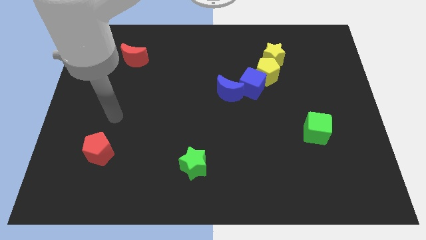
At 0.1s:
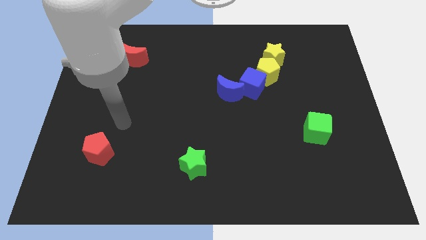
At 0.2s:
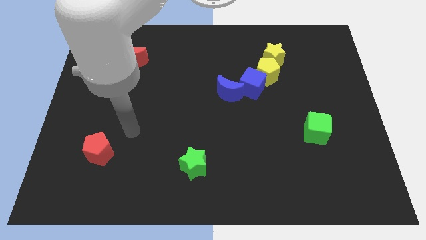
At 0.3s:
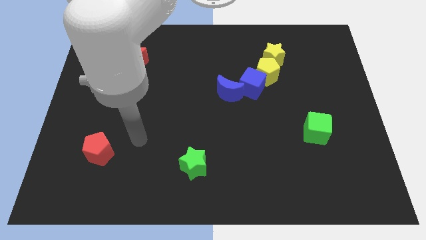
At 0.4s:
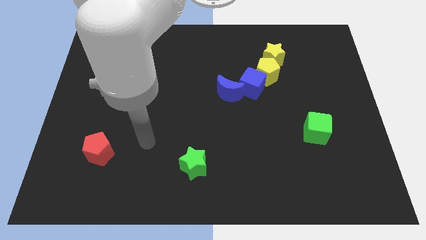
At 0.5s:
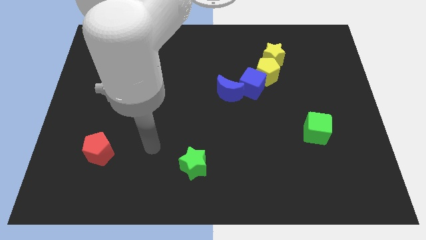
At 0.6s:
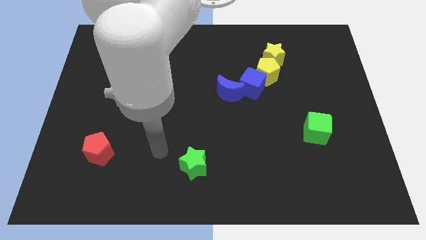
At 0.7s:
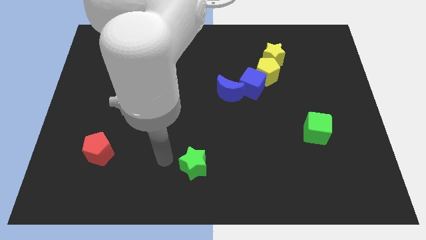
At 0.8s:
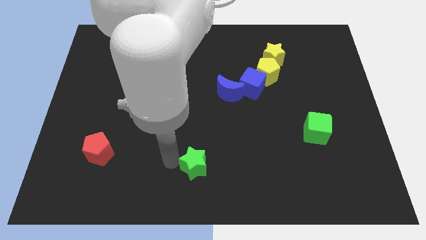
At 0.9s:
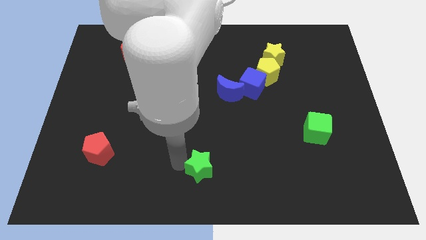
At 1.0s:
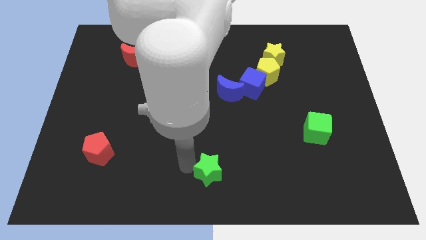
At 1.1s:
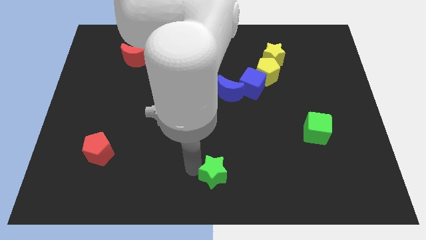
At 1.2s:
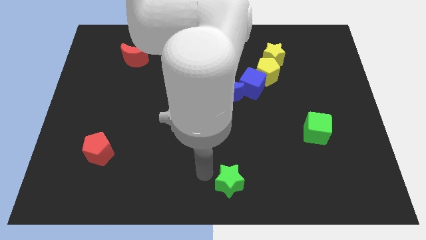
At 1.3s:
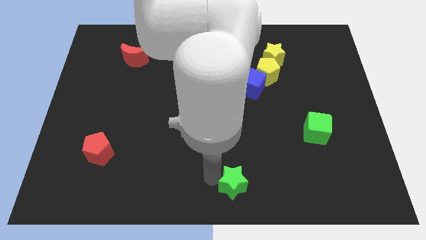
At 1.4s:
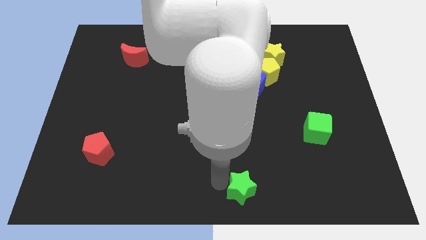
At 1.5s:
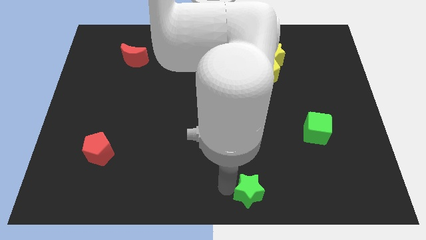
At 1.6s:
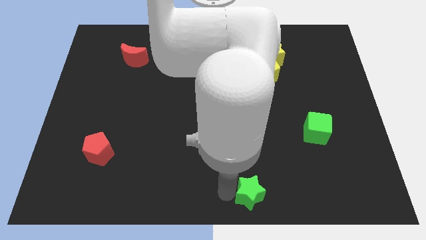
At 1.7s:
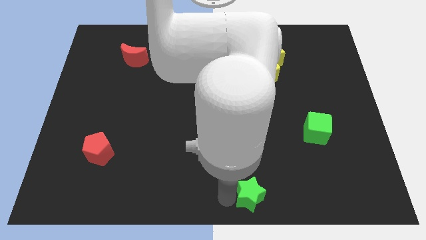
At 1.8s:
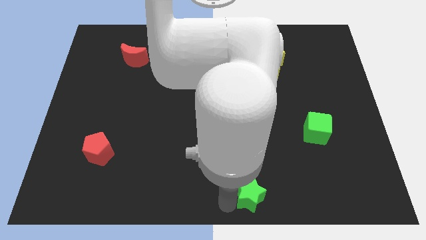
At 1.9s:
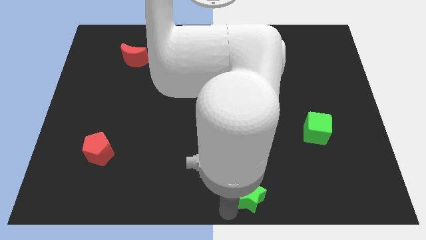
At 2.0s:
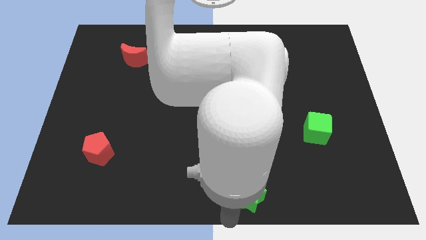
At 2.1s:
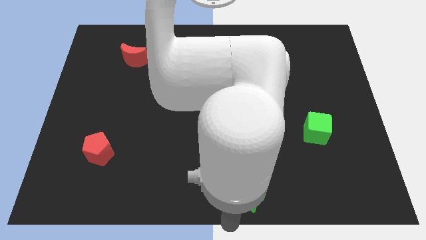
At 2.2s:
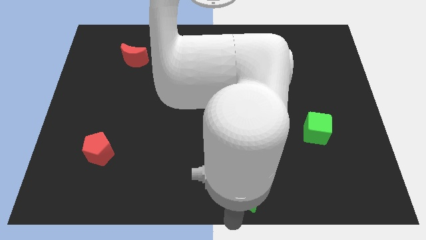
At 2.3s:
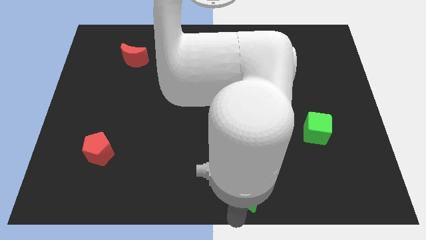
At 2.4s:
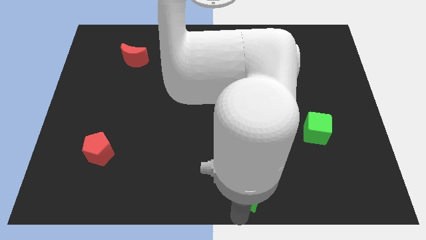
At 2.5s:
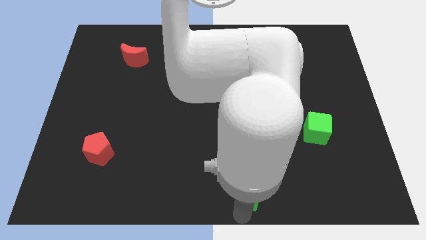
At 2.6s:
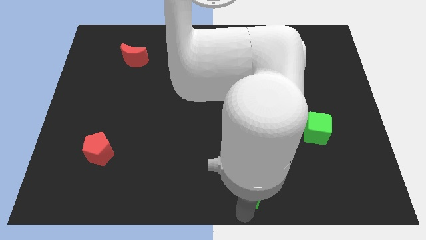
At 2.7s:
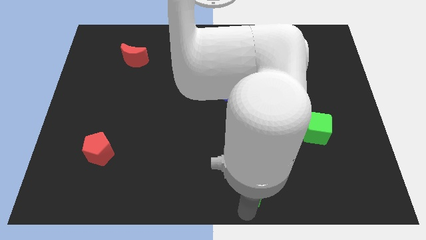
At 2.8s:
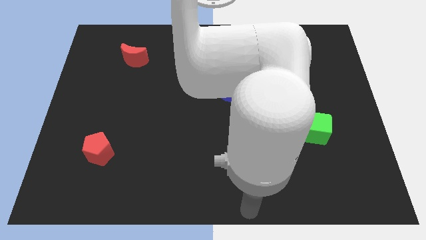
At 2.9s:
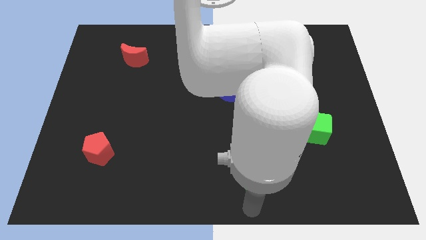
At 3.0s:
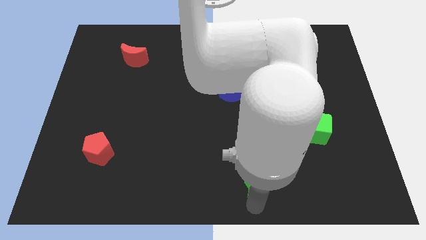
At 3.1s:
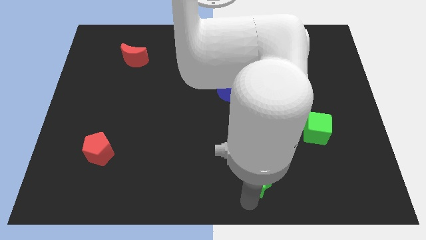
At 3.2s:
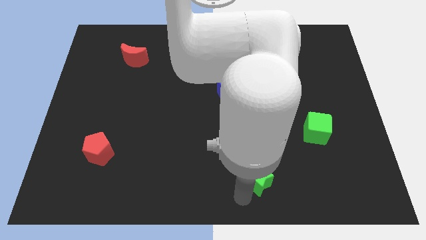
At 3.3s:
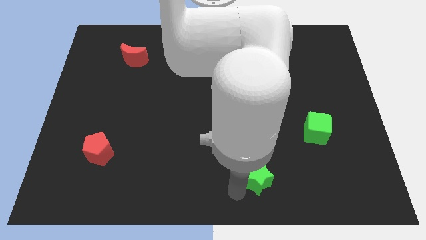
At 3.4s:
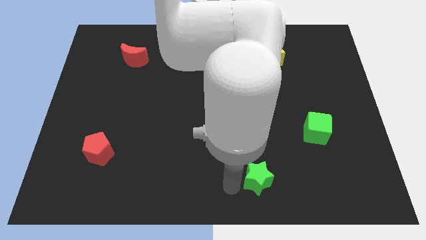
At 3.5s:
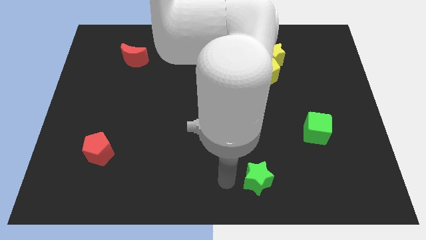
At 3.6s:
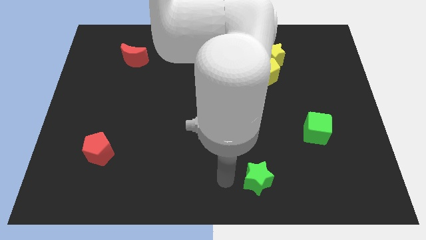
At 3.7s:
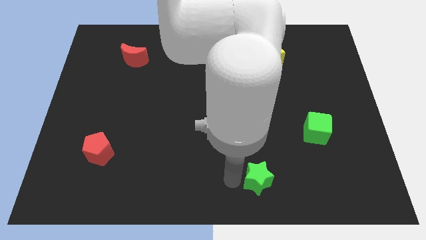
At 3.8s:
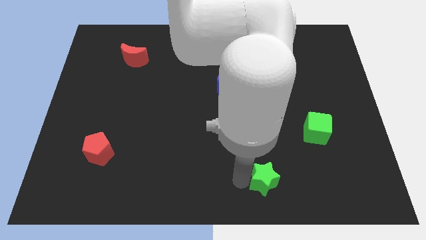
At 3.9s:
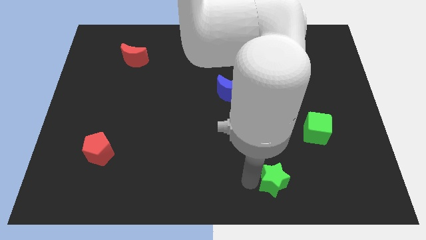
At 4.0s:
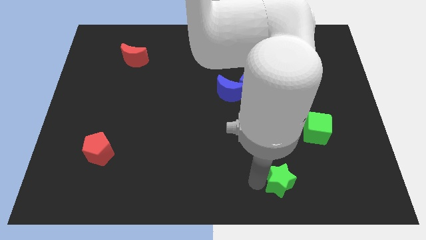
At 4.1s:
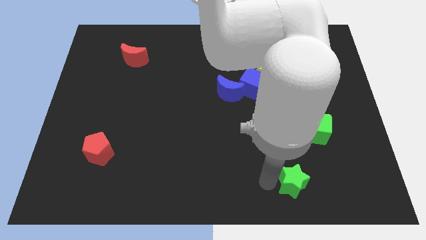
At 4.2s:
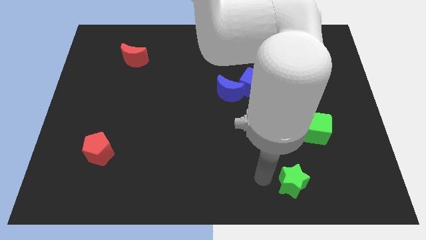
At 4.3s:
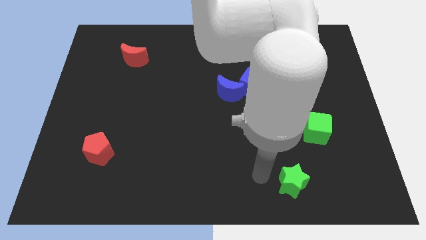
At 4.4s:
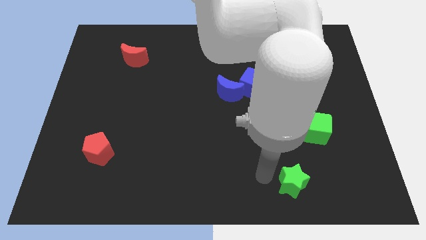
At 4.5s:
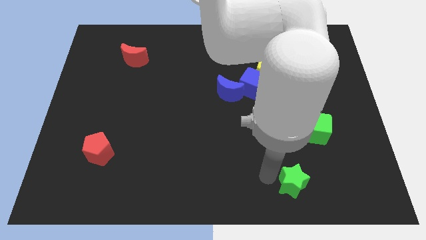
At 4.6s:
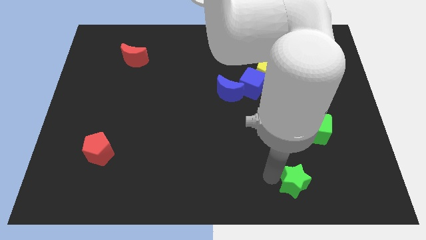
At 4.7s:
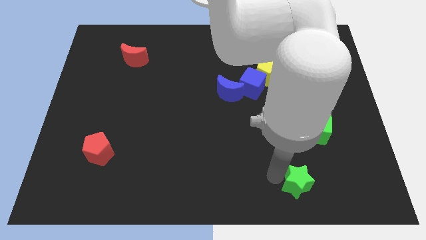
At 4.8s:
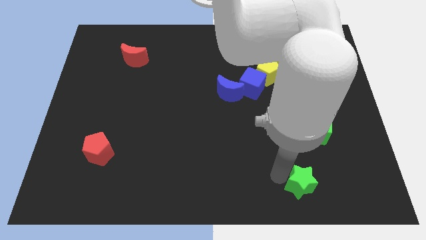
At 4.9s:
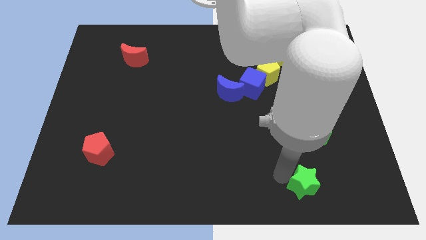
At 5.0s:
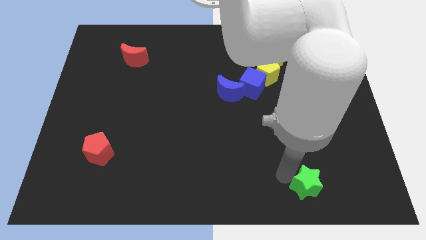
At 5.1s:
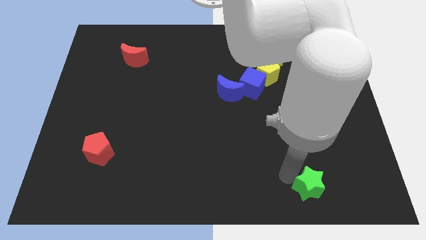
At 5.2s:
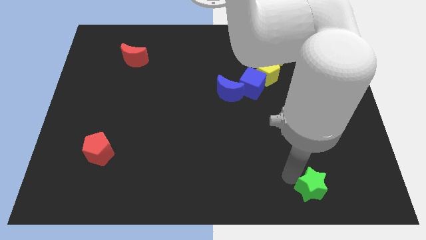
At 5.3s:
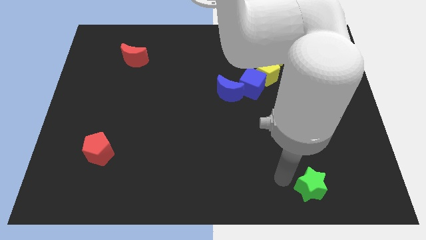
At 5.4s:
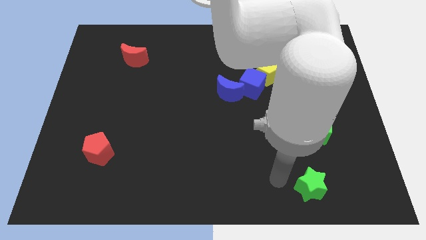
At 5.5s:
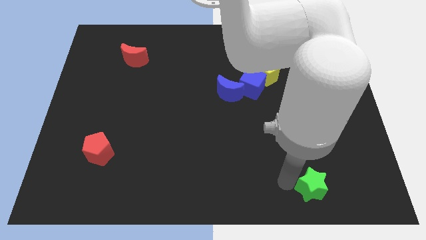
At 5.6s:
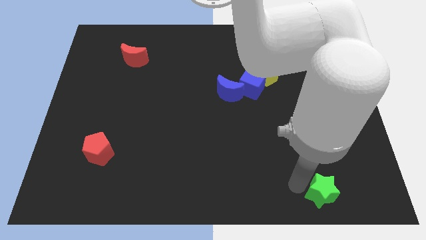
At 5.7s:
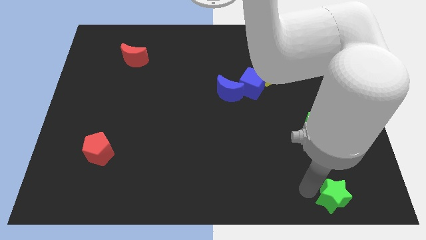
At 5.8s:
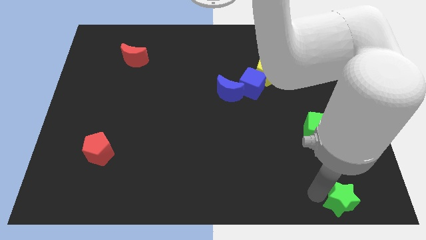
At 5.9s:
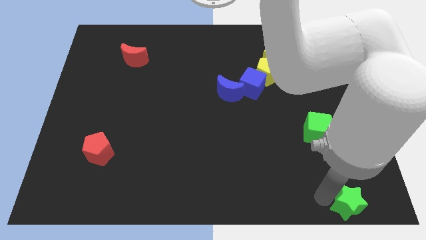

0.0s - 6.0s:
put the green star to the bottom right of the board
